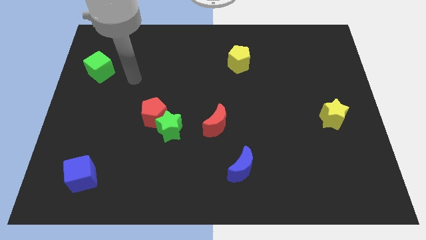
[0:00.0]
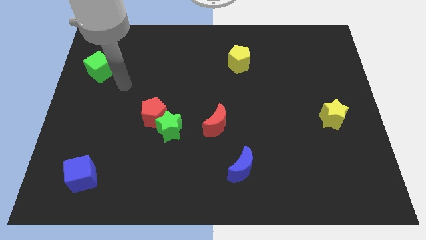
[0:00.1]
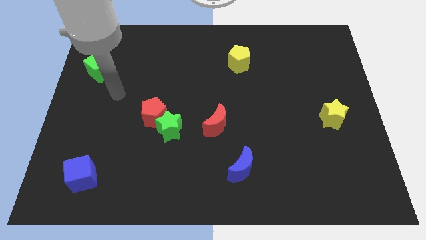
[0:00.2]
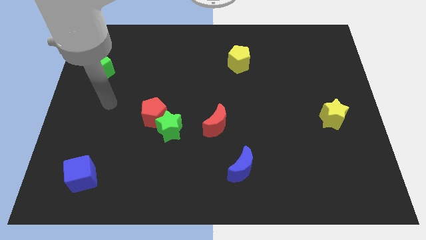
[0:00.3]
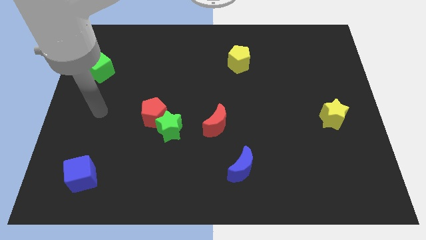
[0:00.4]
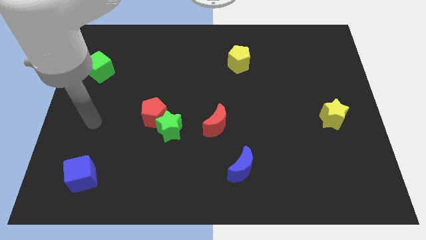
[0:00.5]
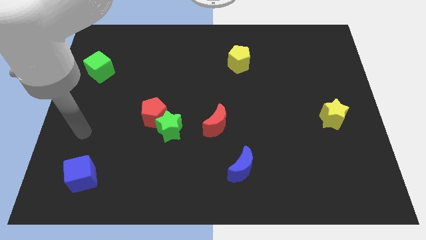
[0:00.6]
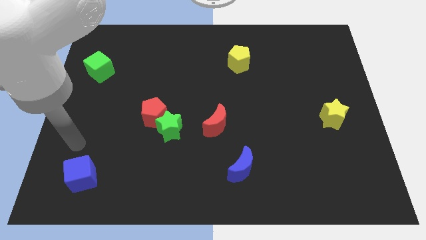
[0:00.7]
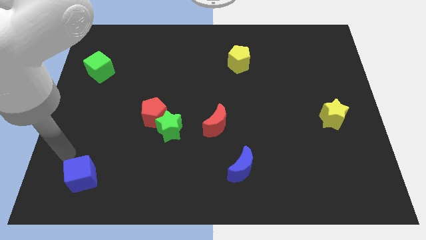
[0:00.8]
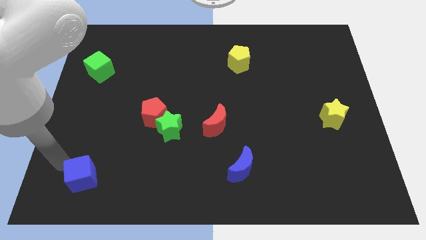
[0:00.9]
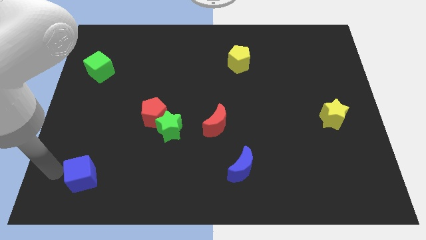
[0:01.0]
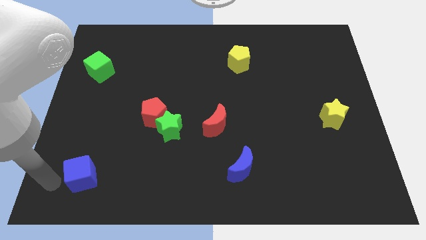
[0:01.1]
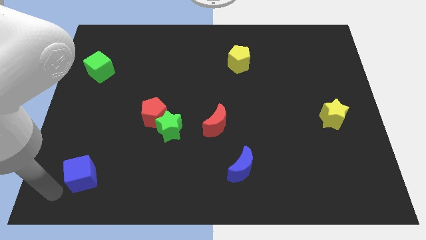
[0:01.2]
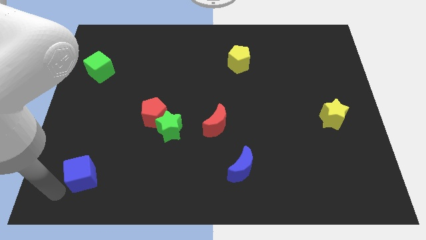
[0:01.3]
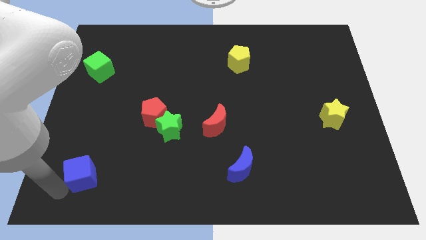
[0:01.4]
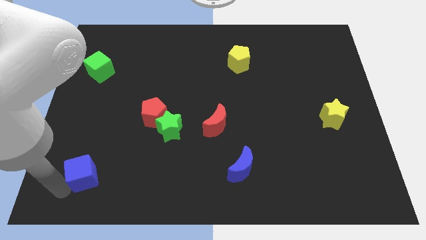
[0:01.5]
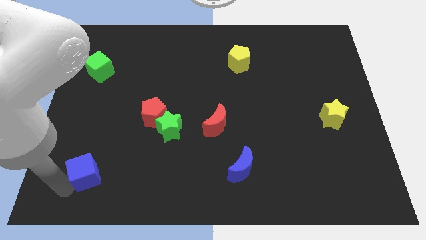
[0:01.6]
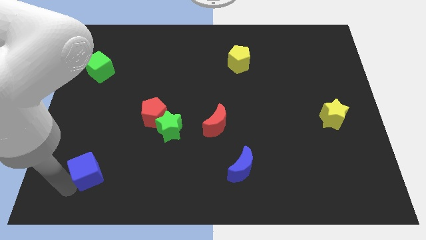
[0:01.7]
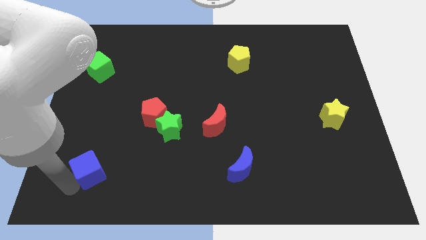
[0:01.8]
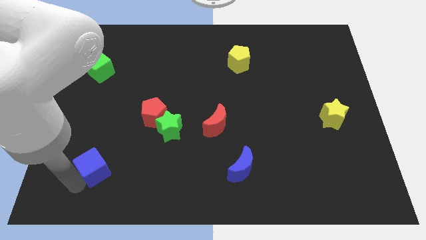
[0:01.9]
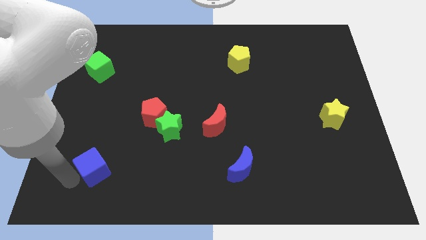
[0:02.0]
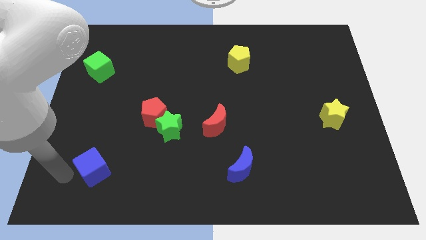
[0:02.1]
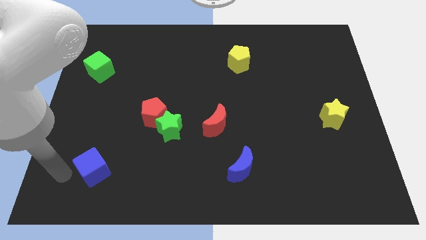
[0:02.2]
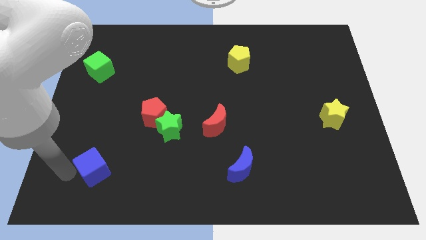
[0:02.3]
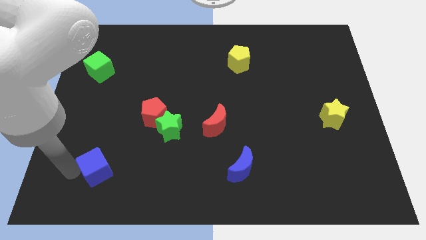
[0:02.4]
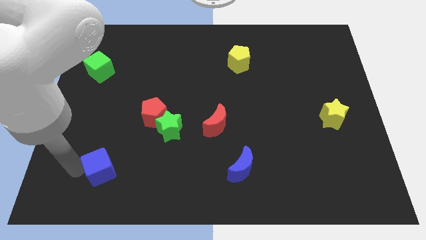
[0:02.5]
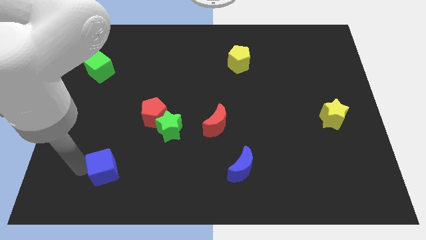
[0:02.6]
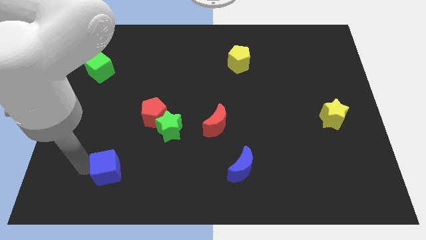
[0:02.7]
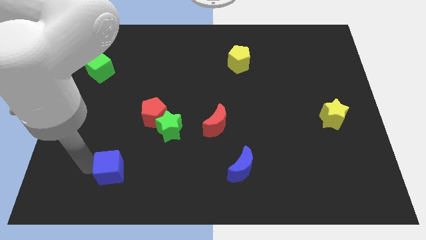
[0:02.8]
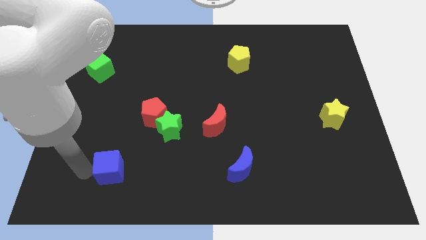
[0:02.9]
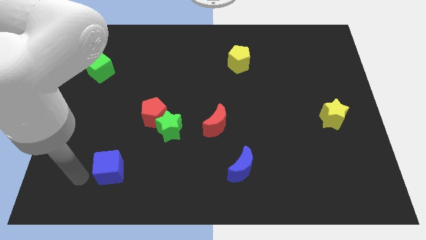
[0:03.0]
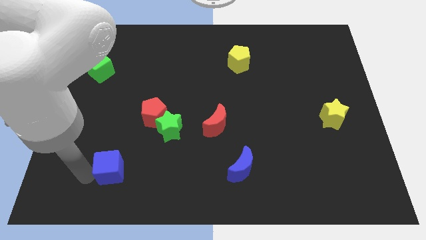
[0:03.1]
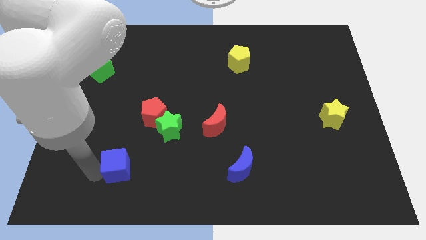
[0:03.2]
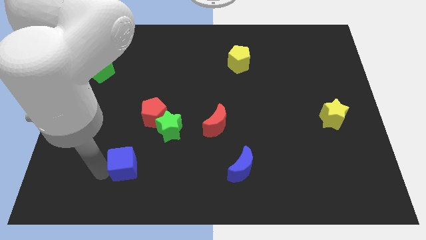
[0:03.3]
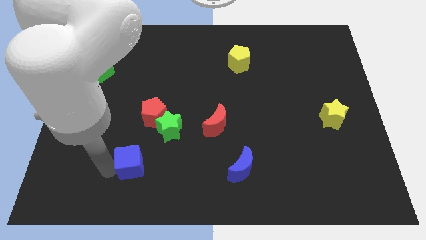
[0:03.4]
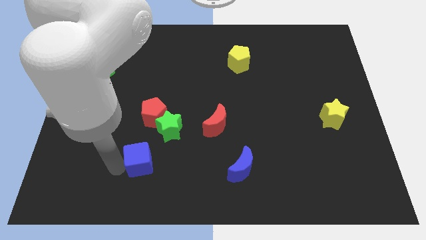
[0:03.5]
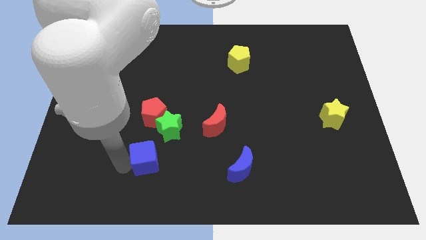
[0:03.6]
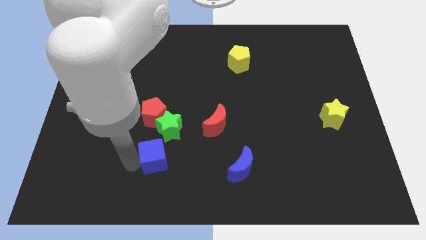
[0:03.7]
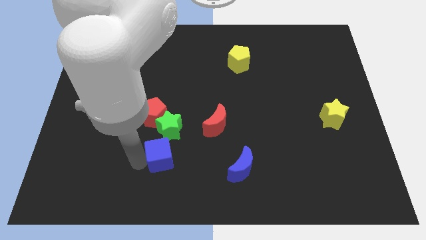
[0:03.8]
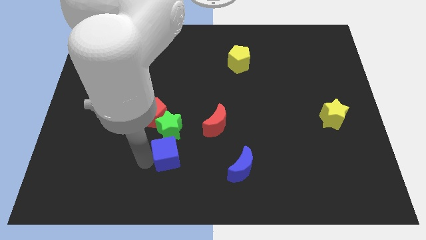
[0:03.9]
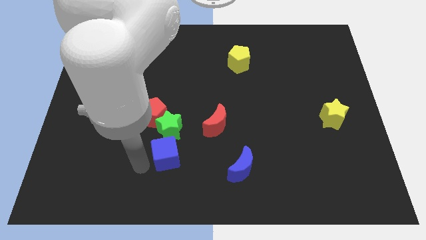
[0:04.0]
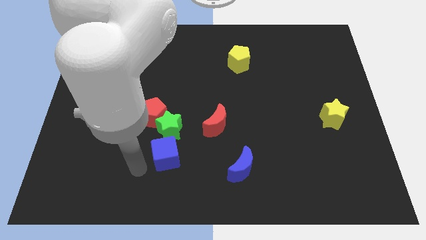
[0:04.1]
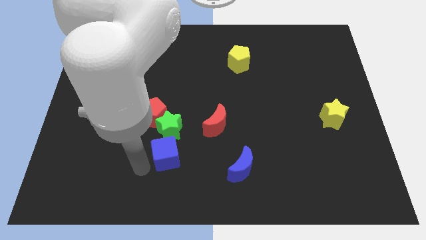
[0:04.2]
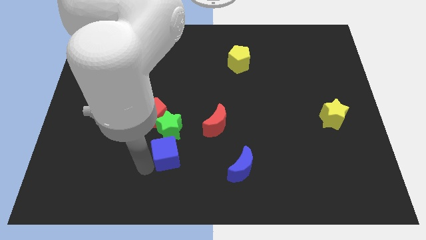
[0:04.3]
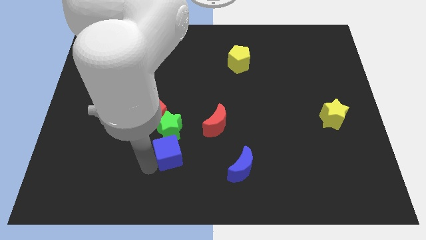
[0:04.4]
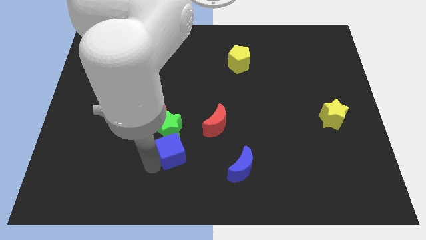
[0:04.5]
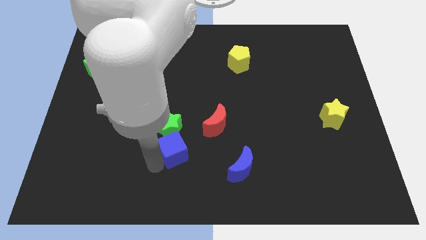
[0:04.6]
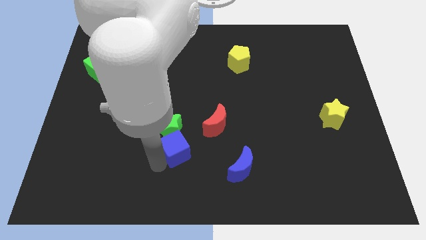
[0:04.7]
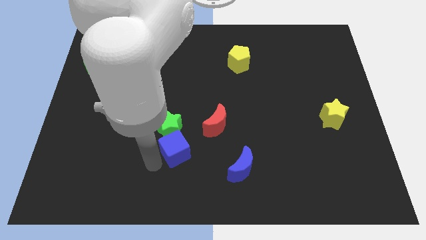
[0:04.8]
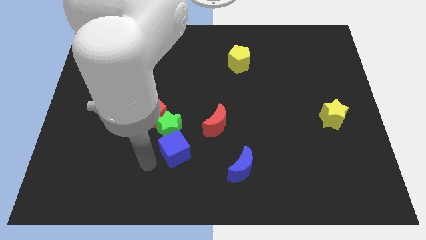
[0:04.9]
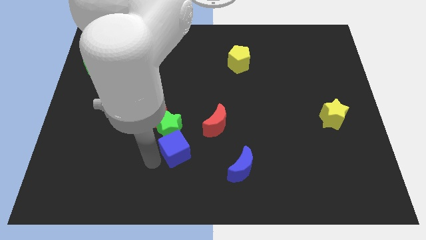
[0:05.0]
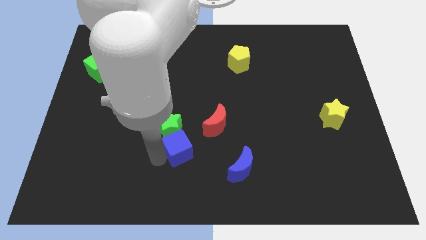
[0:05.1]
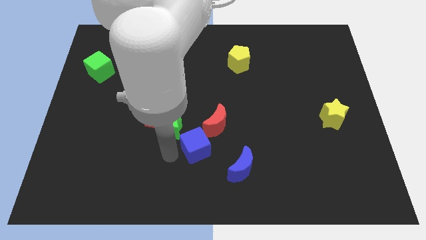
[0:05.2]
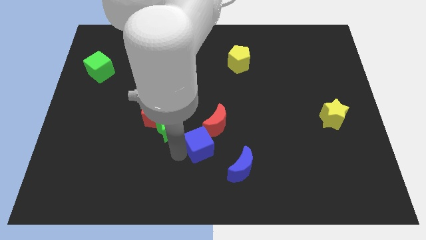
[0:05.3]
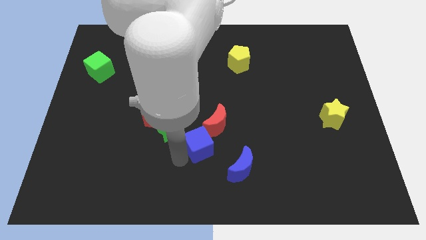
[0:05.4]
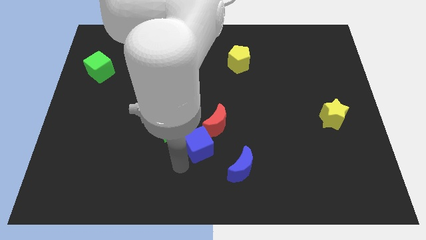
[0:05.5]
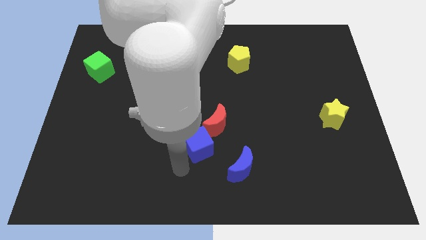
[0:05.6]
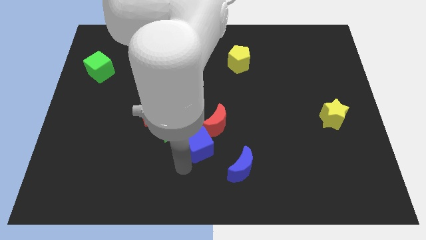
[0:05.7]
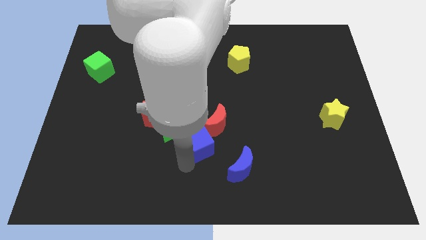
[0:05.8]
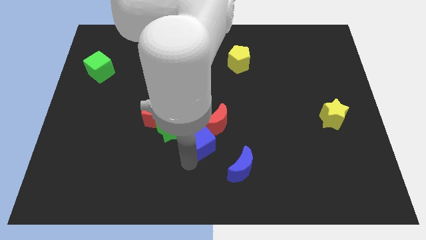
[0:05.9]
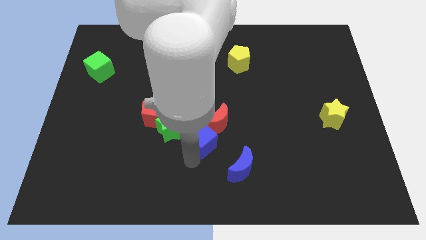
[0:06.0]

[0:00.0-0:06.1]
move the blue cube towards the red moon

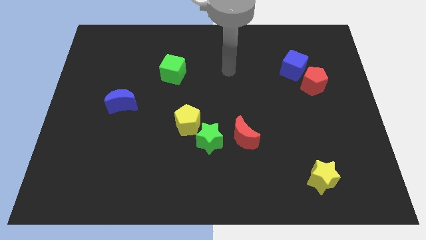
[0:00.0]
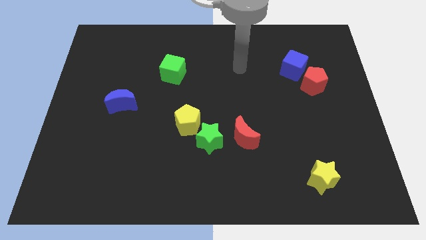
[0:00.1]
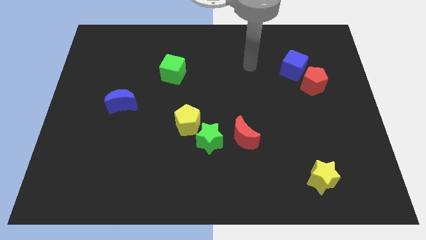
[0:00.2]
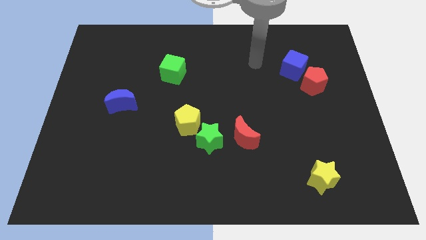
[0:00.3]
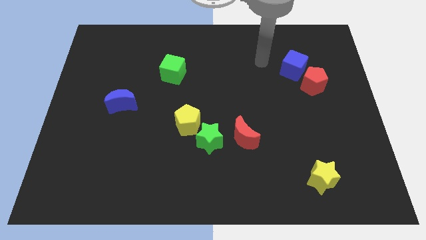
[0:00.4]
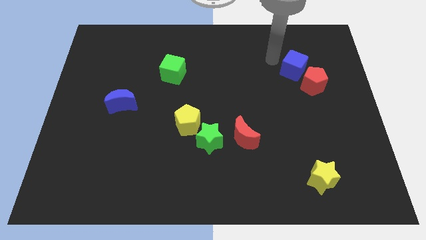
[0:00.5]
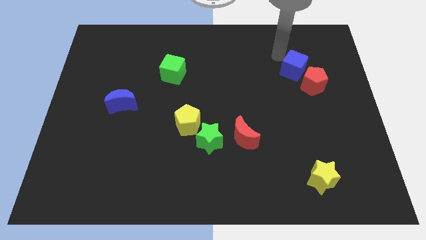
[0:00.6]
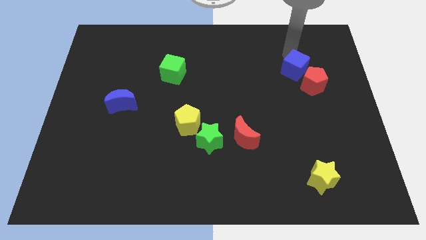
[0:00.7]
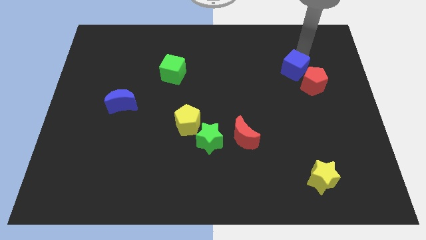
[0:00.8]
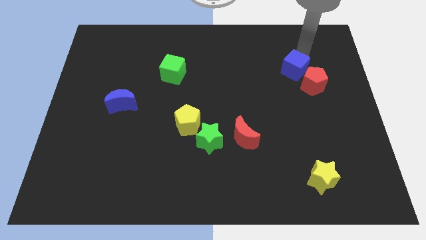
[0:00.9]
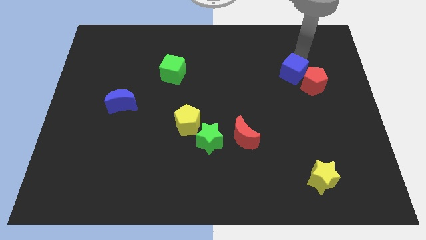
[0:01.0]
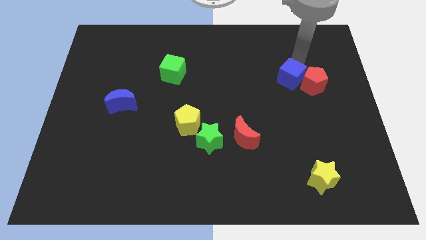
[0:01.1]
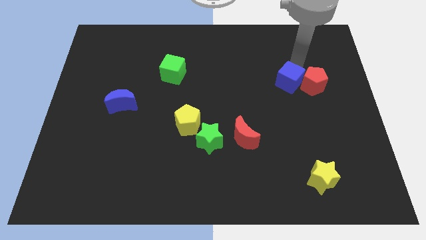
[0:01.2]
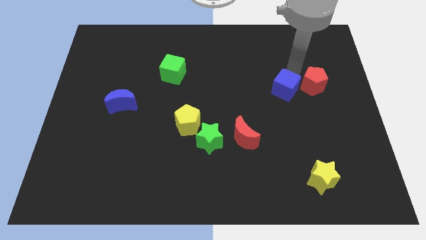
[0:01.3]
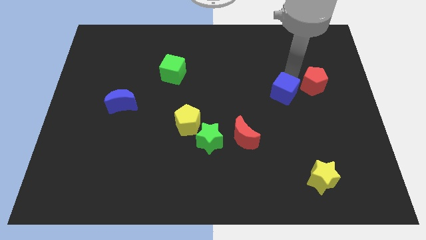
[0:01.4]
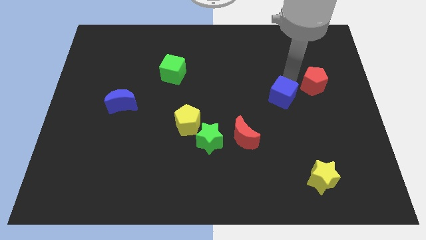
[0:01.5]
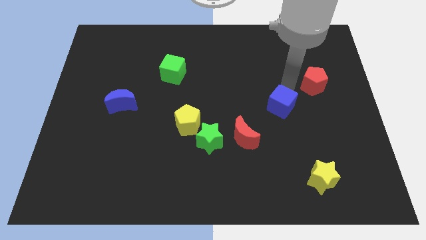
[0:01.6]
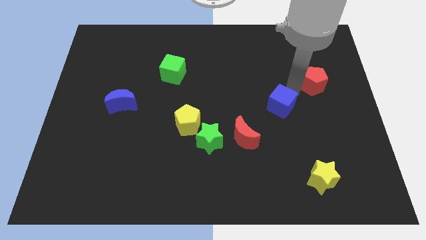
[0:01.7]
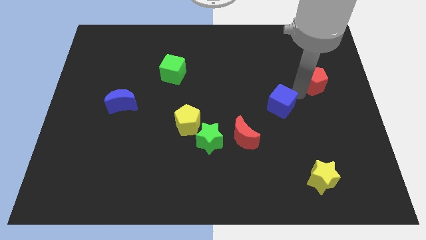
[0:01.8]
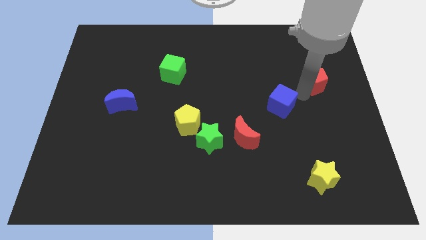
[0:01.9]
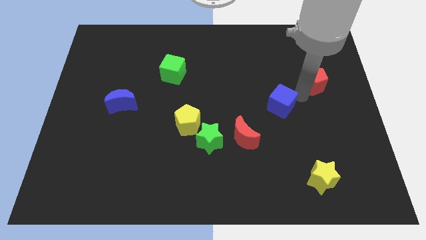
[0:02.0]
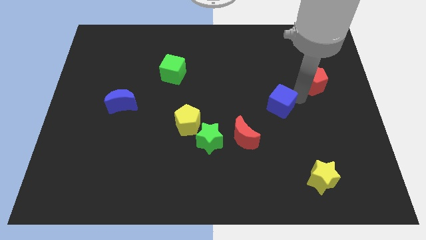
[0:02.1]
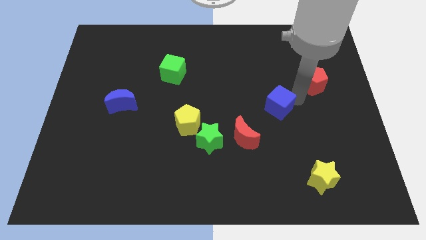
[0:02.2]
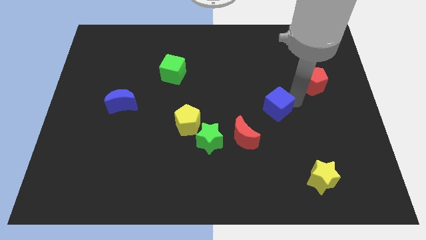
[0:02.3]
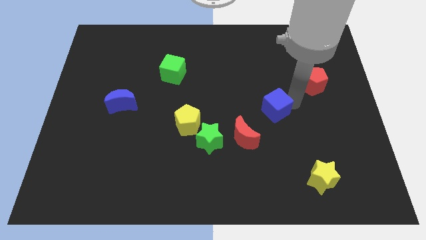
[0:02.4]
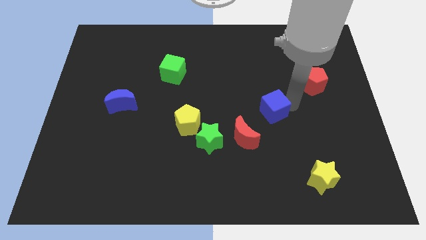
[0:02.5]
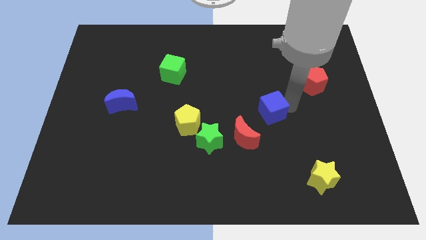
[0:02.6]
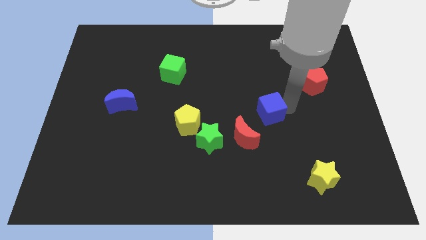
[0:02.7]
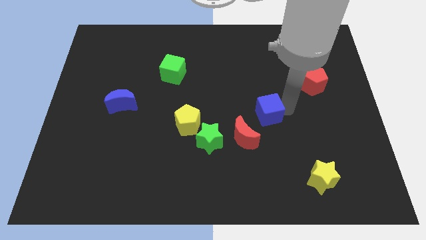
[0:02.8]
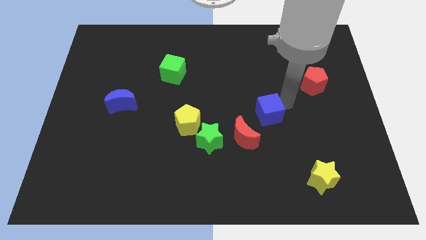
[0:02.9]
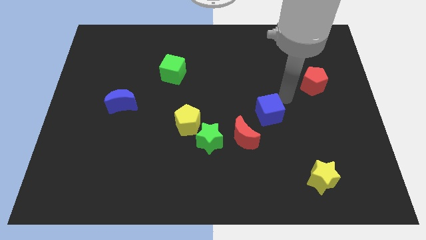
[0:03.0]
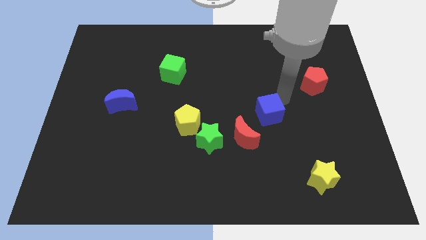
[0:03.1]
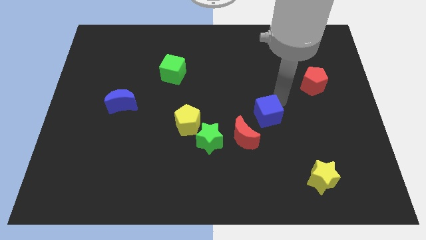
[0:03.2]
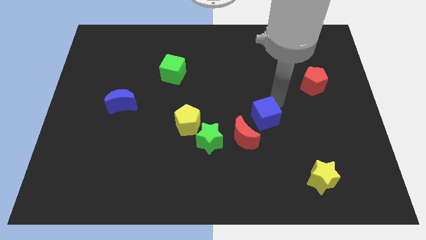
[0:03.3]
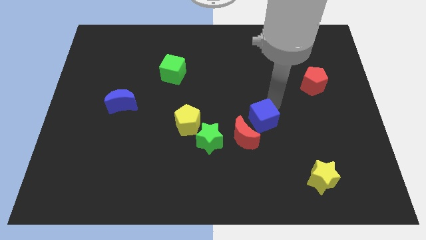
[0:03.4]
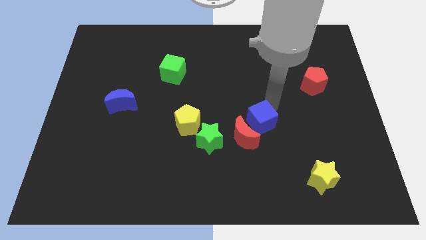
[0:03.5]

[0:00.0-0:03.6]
slide the blue cube towards the red moon
